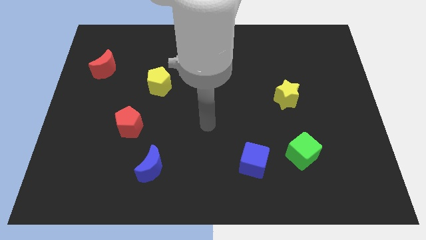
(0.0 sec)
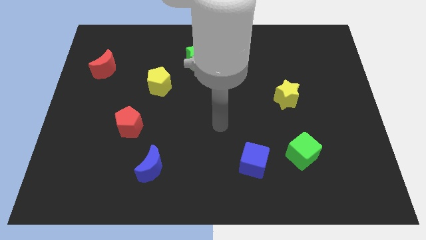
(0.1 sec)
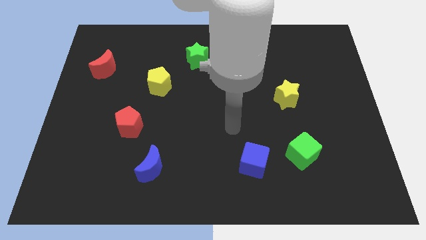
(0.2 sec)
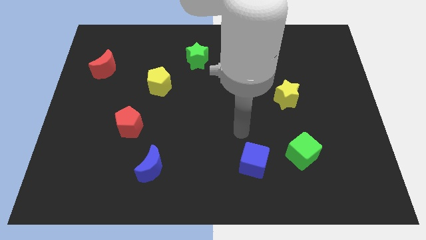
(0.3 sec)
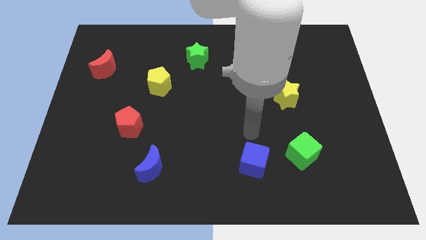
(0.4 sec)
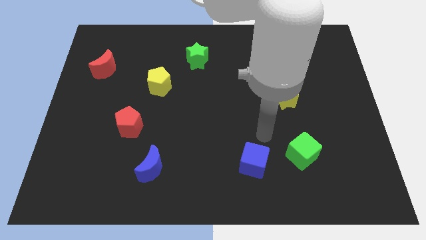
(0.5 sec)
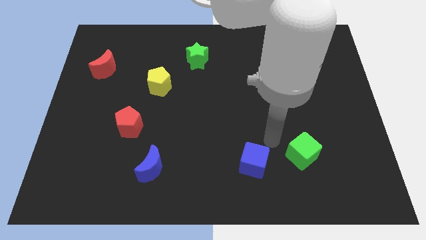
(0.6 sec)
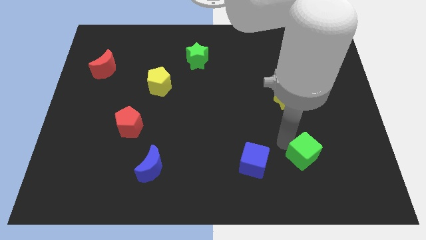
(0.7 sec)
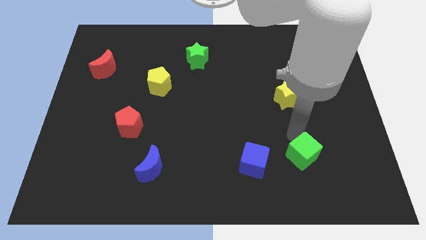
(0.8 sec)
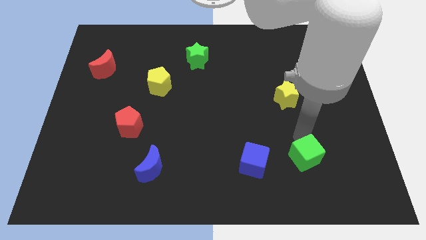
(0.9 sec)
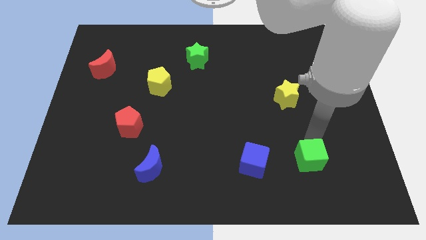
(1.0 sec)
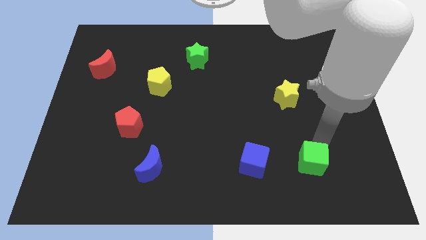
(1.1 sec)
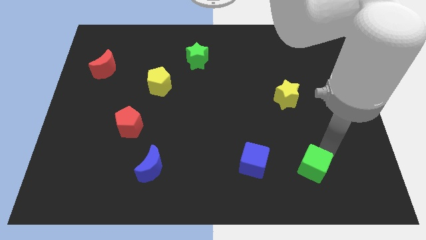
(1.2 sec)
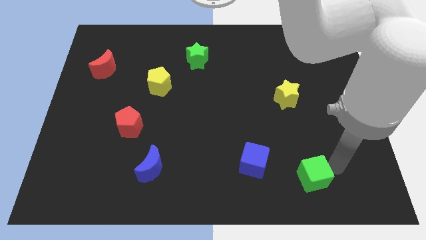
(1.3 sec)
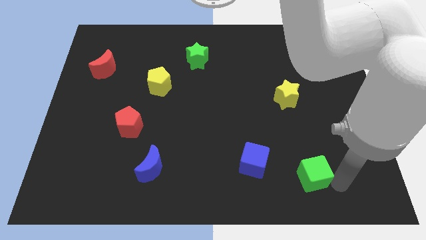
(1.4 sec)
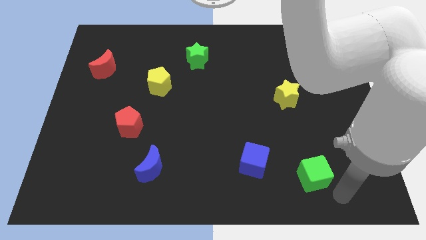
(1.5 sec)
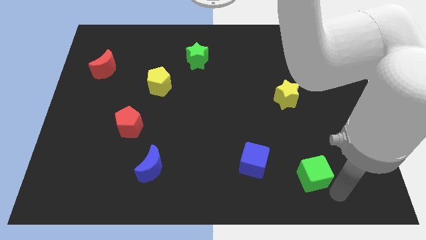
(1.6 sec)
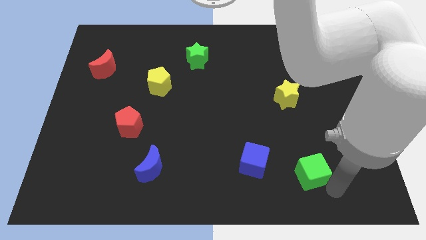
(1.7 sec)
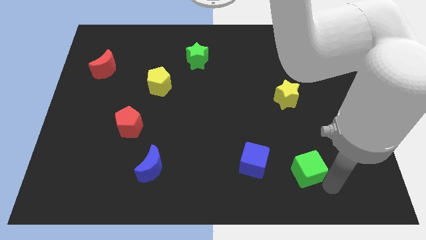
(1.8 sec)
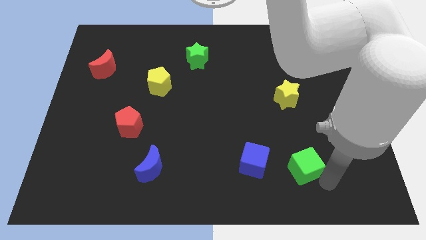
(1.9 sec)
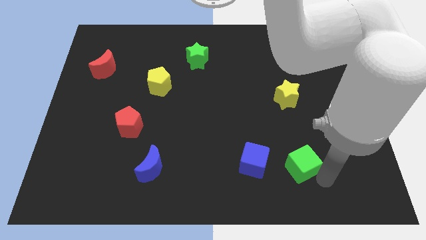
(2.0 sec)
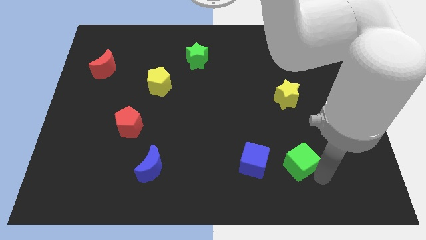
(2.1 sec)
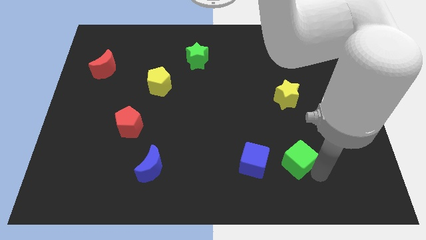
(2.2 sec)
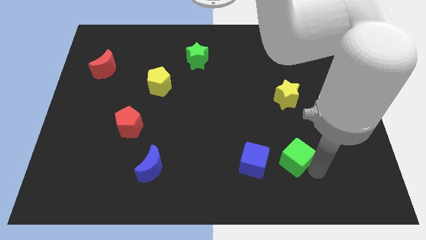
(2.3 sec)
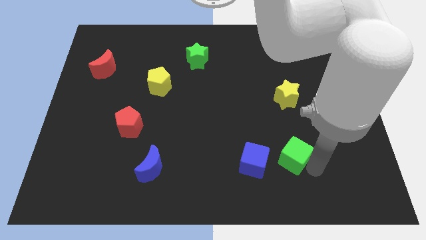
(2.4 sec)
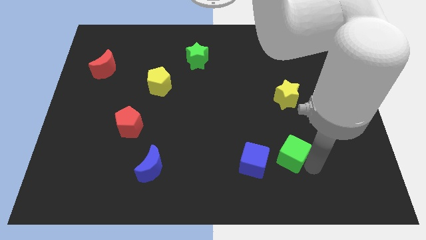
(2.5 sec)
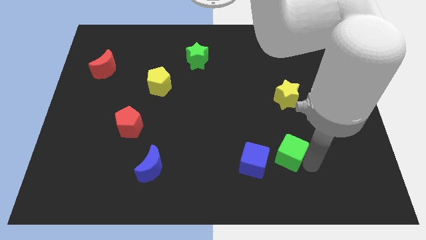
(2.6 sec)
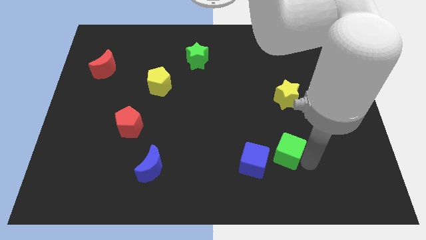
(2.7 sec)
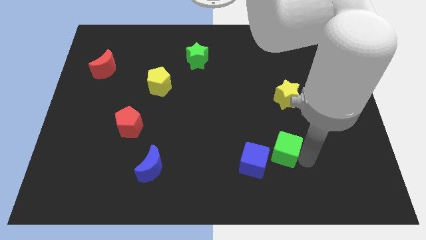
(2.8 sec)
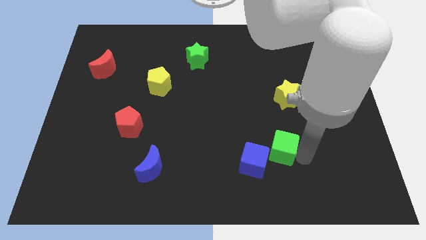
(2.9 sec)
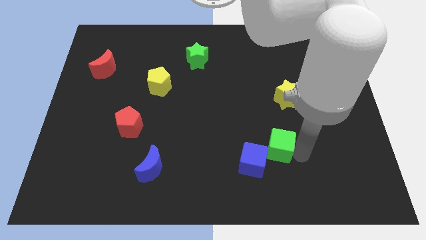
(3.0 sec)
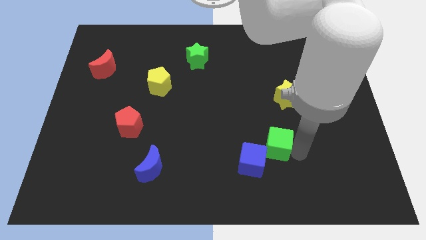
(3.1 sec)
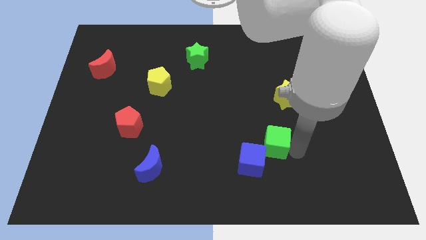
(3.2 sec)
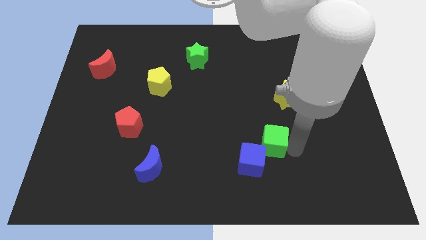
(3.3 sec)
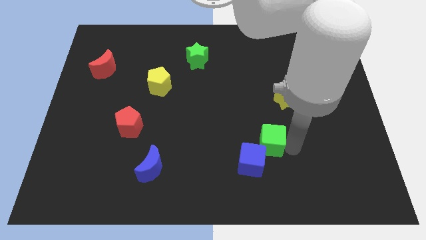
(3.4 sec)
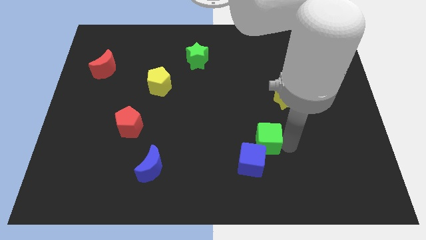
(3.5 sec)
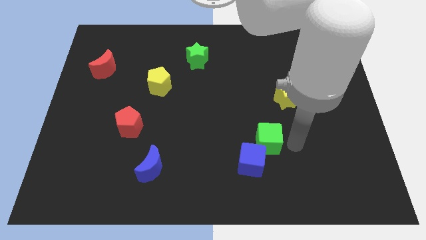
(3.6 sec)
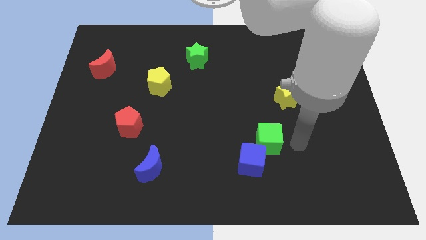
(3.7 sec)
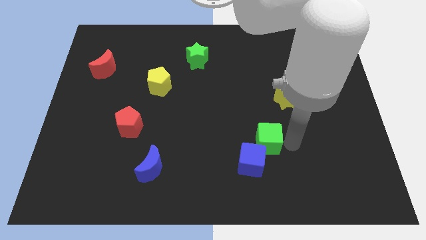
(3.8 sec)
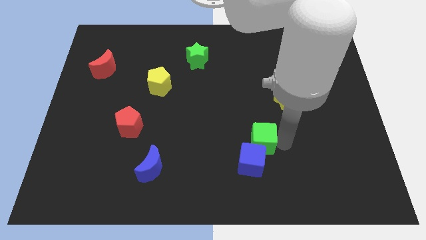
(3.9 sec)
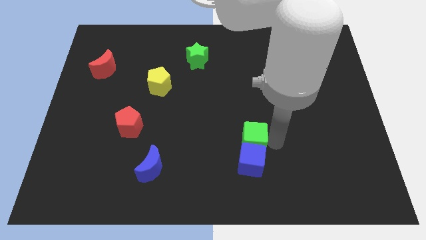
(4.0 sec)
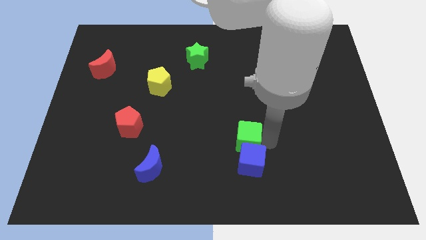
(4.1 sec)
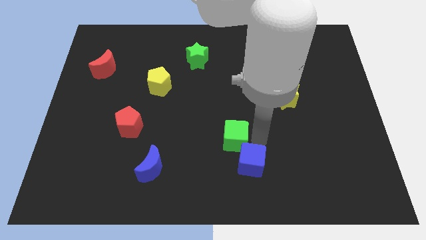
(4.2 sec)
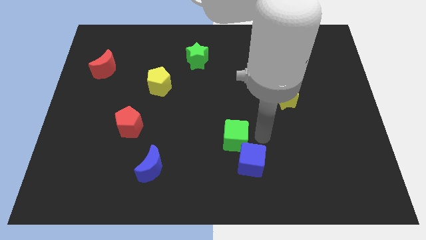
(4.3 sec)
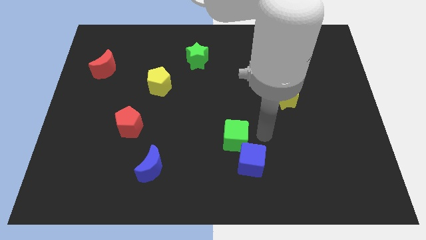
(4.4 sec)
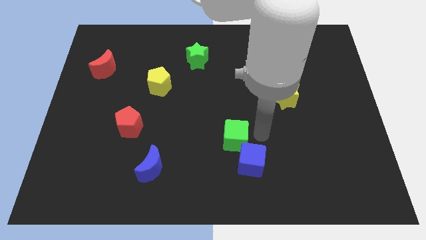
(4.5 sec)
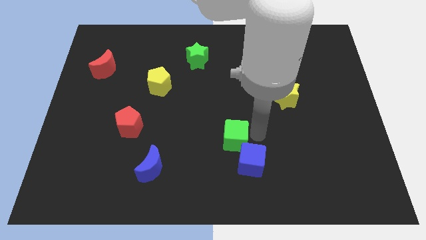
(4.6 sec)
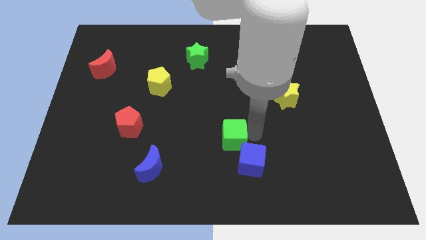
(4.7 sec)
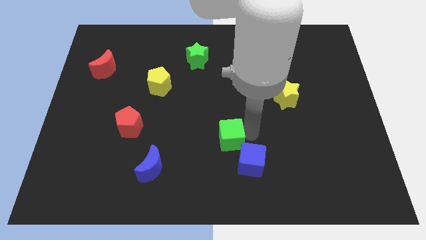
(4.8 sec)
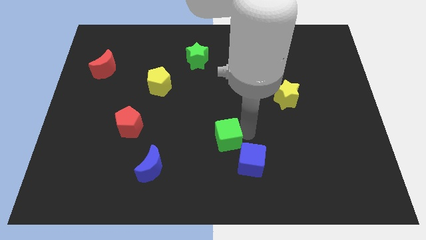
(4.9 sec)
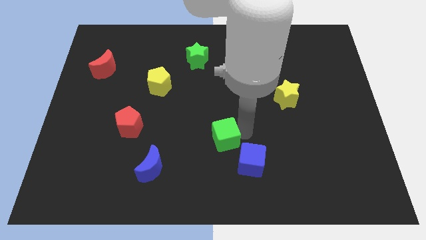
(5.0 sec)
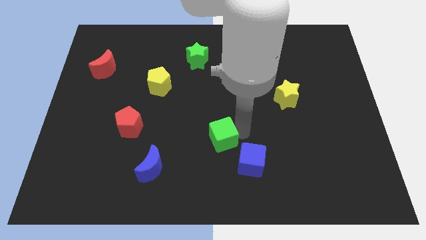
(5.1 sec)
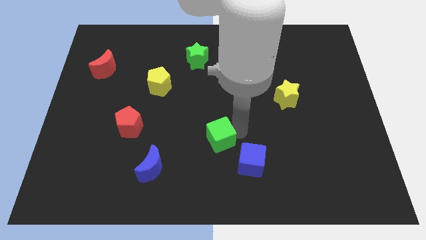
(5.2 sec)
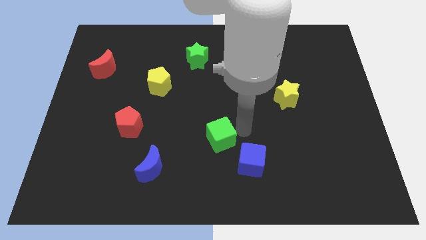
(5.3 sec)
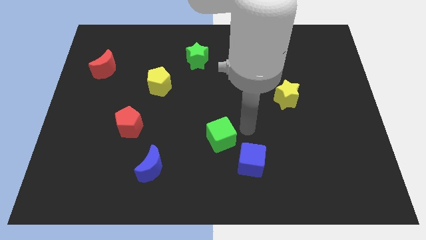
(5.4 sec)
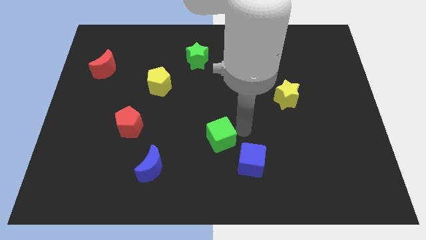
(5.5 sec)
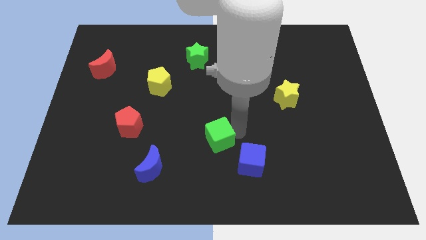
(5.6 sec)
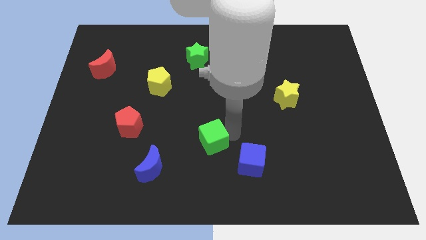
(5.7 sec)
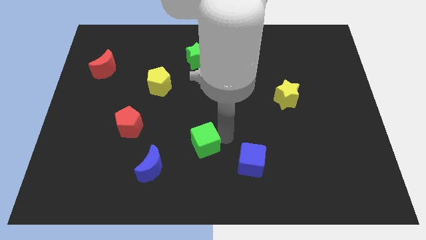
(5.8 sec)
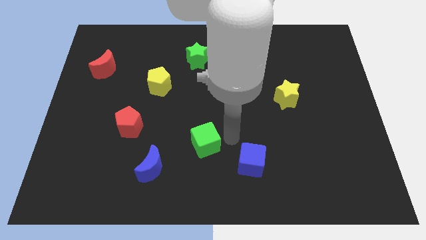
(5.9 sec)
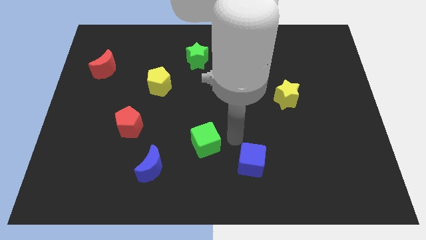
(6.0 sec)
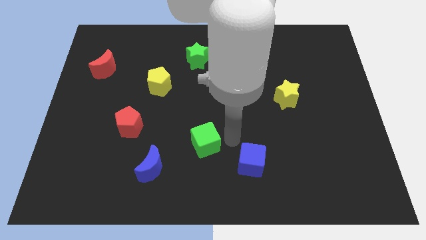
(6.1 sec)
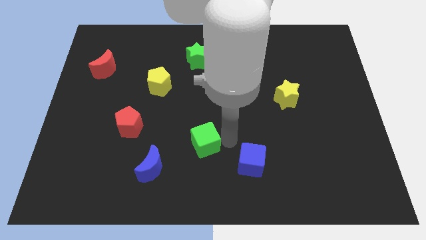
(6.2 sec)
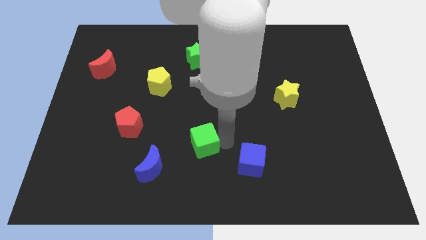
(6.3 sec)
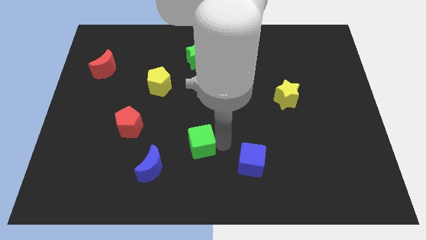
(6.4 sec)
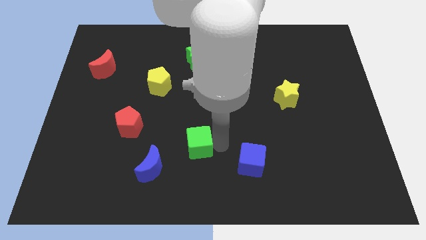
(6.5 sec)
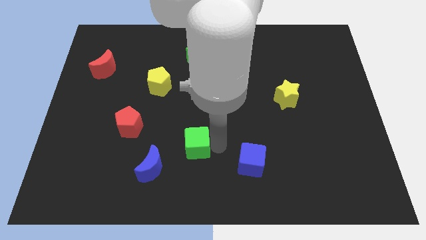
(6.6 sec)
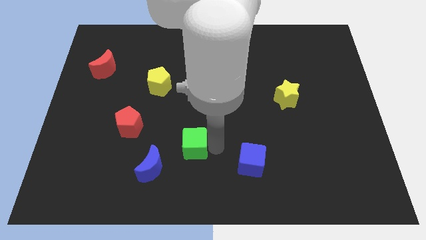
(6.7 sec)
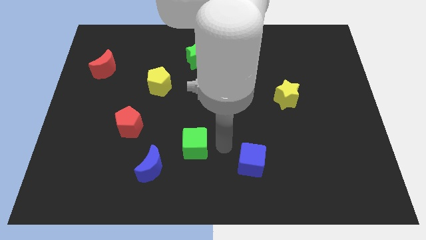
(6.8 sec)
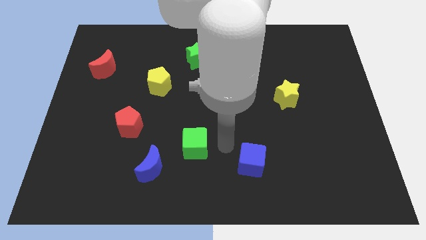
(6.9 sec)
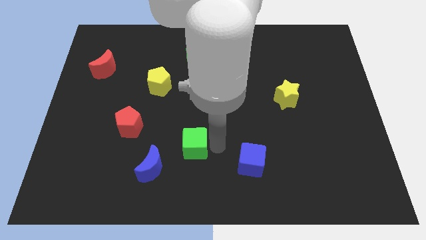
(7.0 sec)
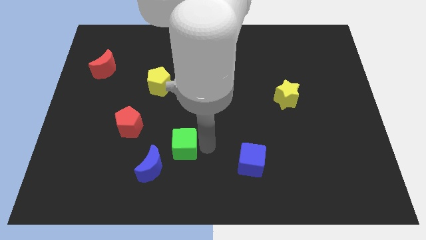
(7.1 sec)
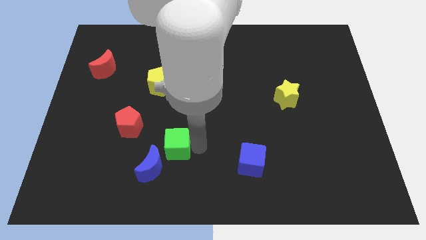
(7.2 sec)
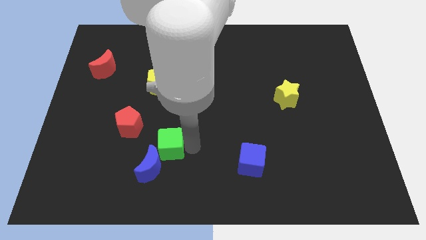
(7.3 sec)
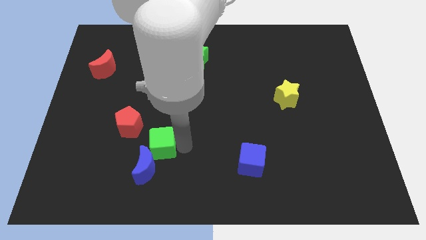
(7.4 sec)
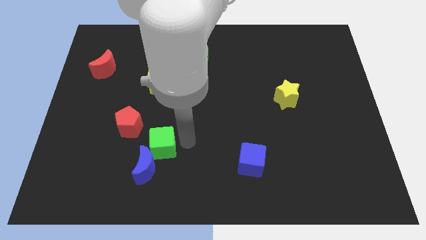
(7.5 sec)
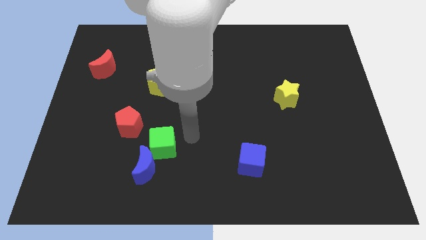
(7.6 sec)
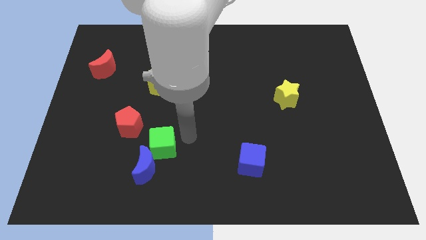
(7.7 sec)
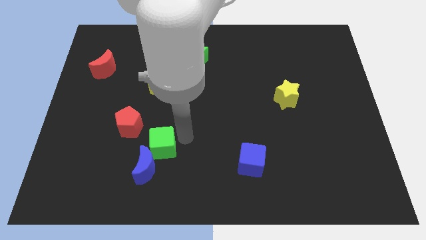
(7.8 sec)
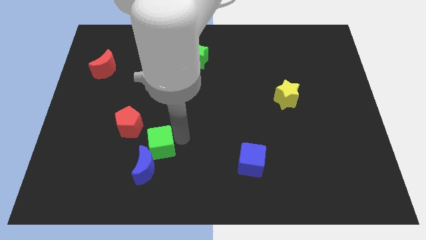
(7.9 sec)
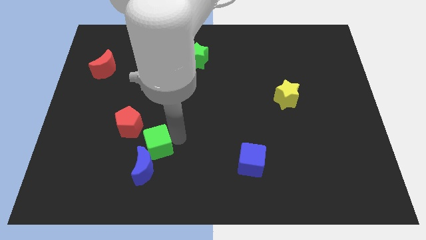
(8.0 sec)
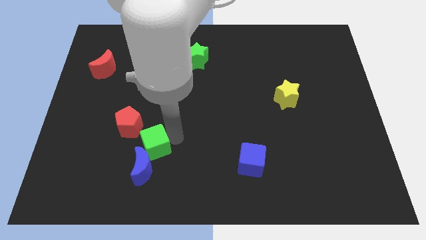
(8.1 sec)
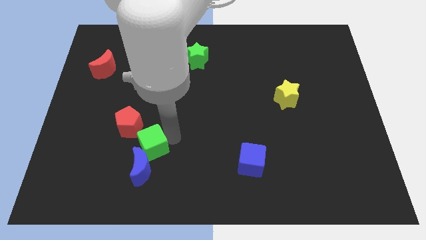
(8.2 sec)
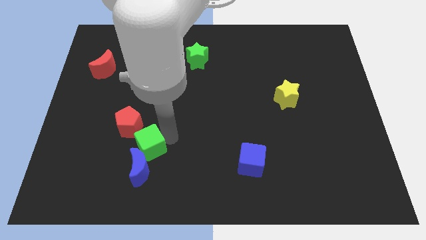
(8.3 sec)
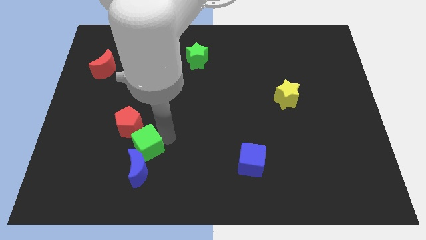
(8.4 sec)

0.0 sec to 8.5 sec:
move the green cube below the red pentagon
